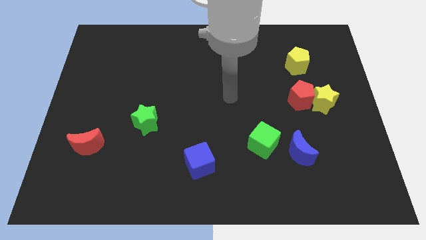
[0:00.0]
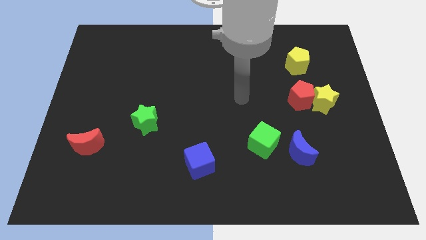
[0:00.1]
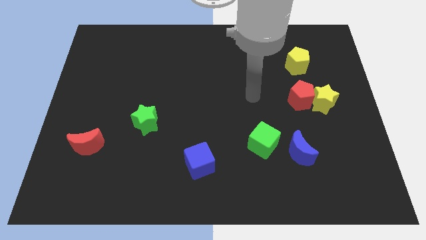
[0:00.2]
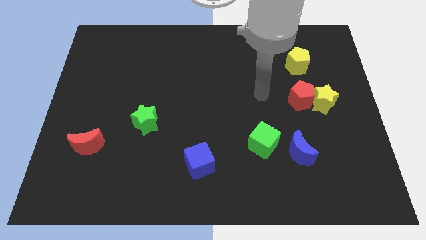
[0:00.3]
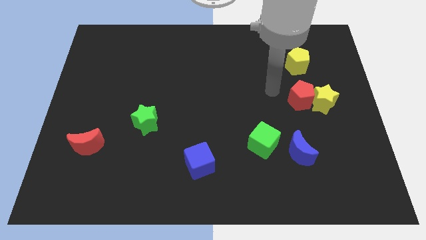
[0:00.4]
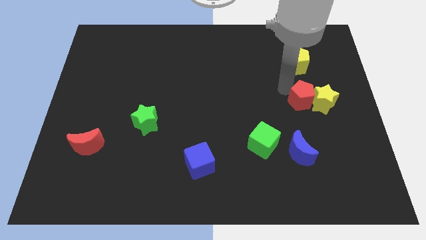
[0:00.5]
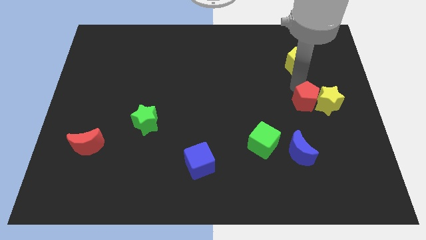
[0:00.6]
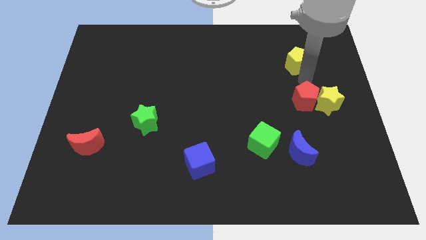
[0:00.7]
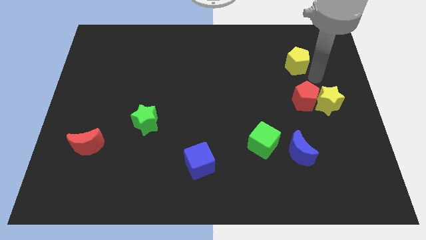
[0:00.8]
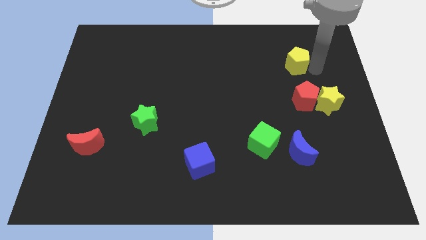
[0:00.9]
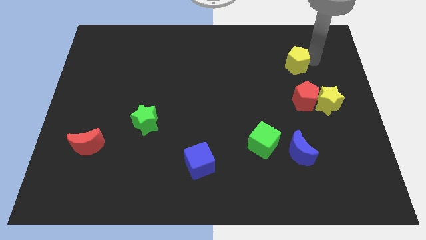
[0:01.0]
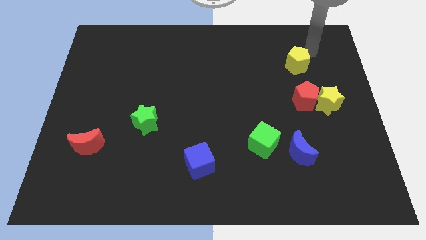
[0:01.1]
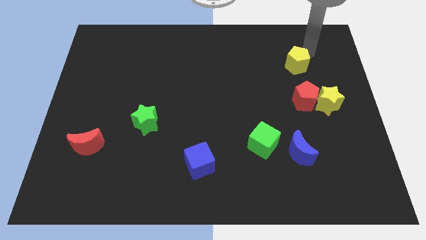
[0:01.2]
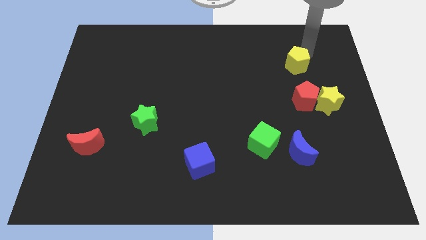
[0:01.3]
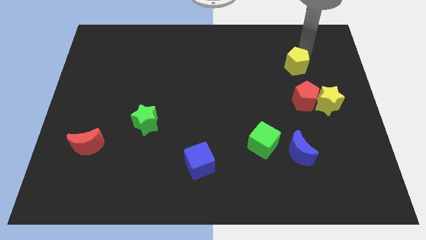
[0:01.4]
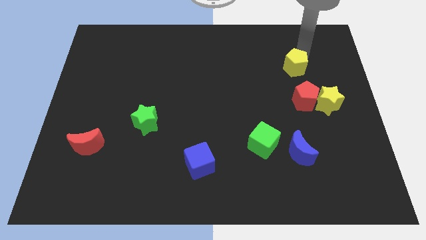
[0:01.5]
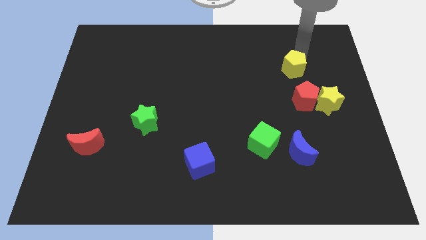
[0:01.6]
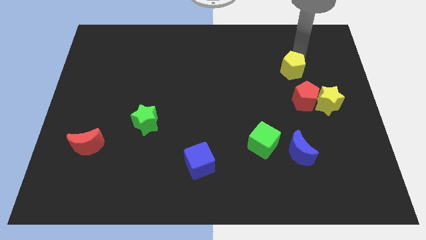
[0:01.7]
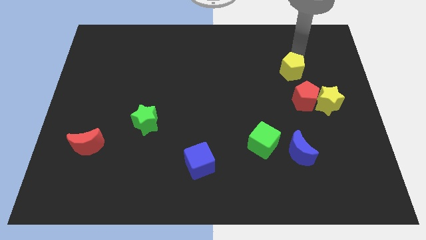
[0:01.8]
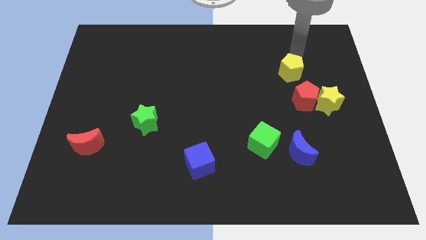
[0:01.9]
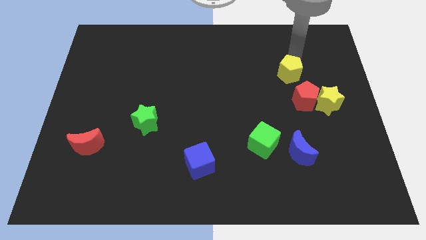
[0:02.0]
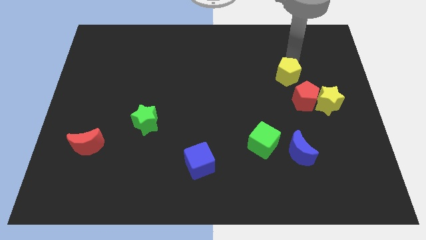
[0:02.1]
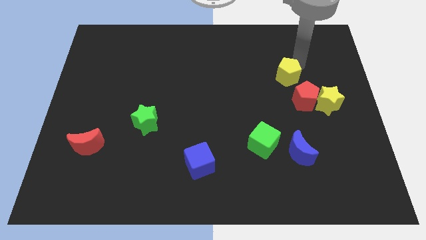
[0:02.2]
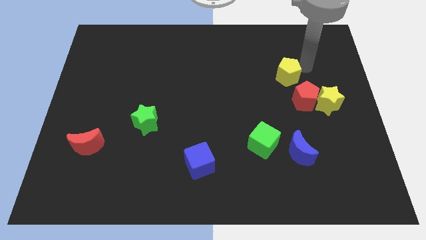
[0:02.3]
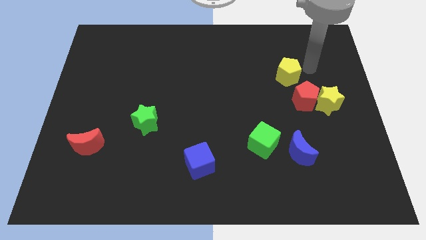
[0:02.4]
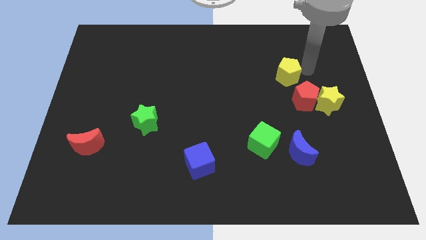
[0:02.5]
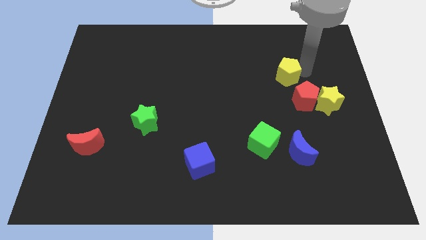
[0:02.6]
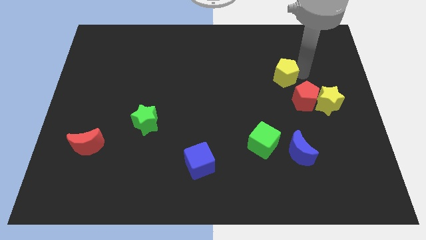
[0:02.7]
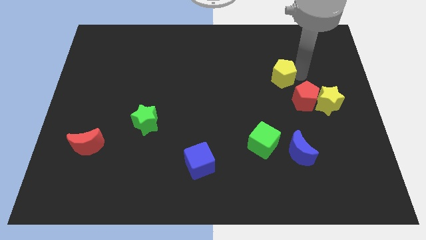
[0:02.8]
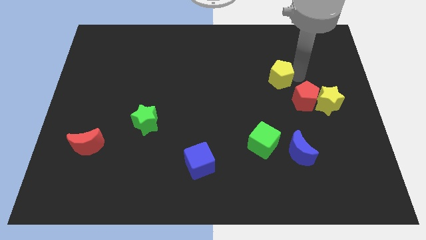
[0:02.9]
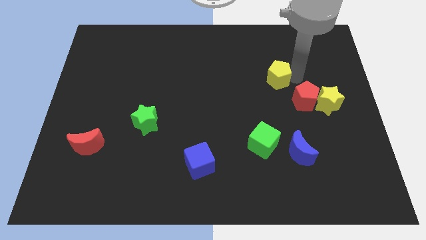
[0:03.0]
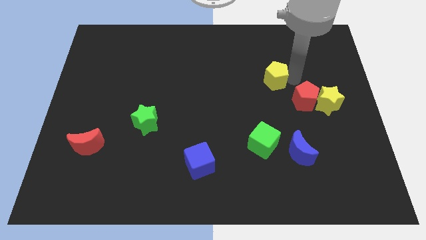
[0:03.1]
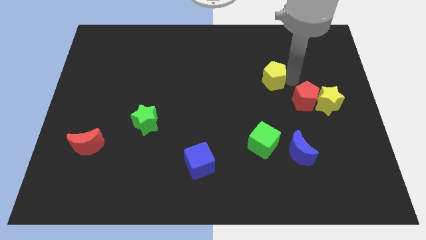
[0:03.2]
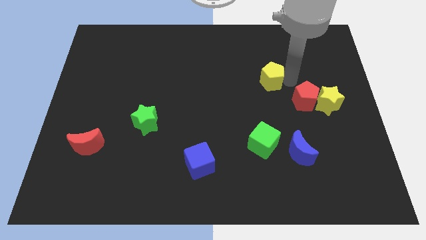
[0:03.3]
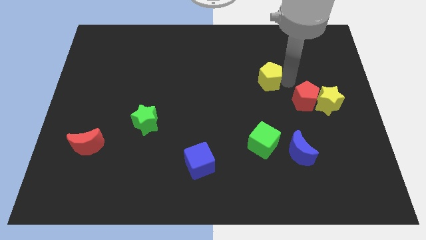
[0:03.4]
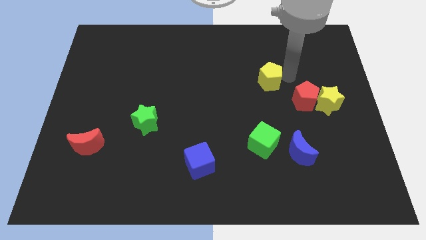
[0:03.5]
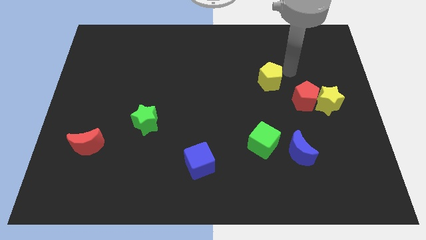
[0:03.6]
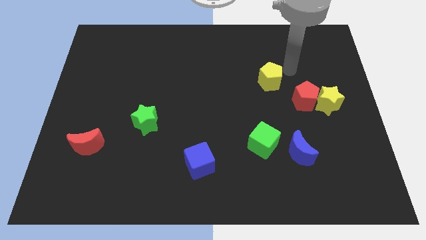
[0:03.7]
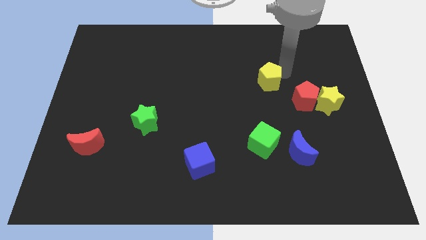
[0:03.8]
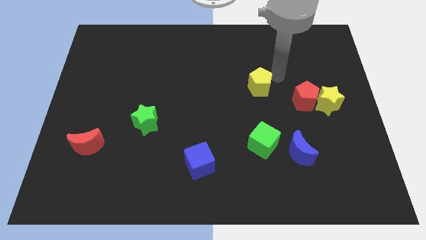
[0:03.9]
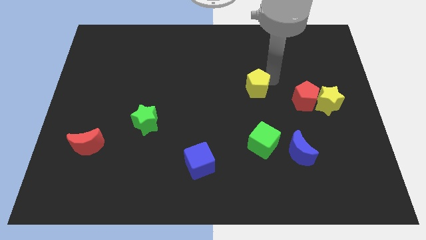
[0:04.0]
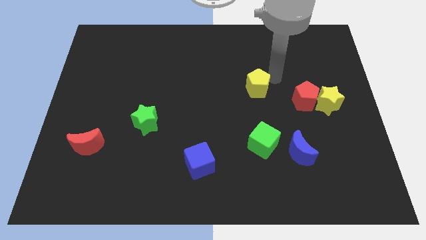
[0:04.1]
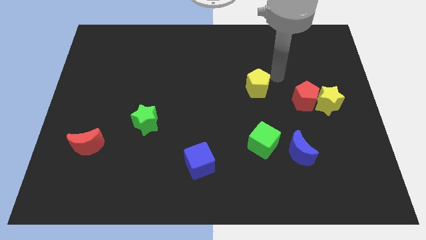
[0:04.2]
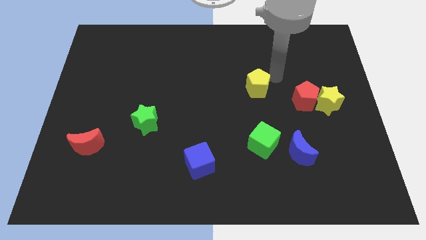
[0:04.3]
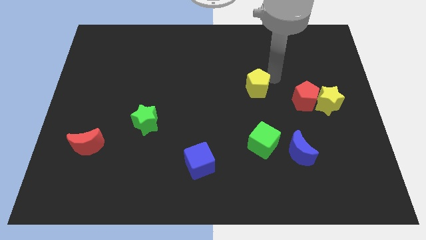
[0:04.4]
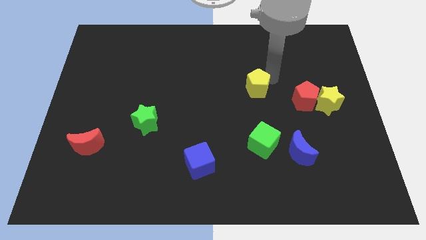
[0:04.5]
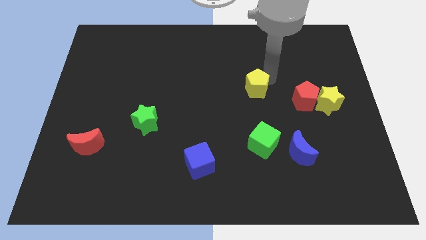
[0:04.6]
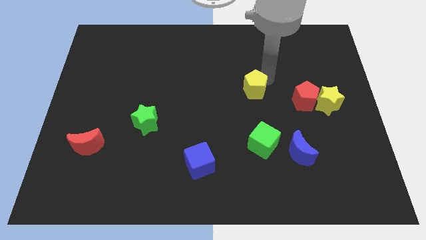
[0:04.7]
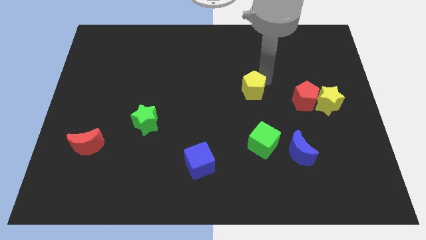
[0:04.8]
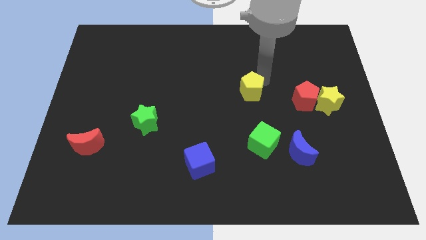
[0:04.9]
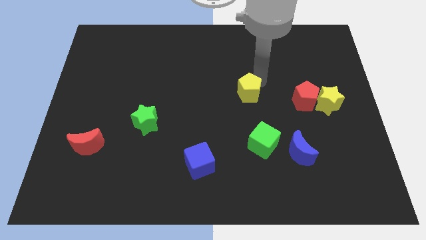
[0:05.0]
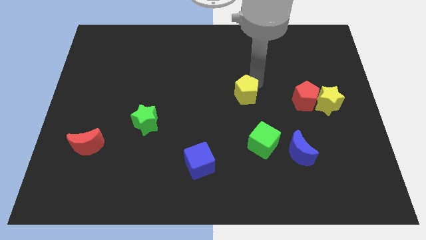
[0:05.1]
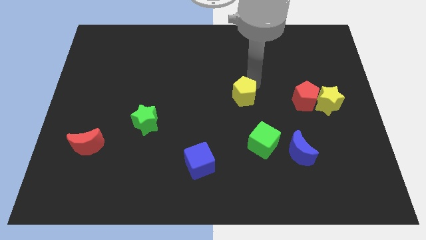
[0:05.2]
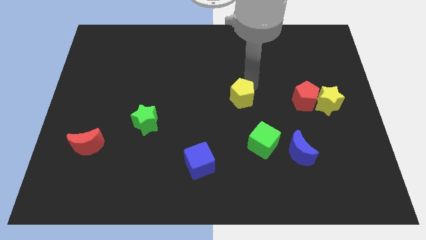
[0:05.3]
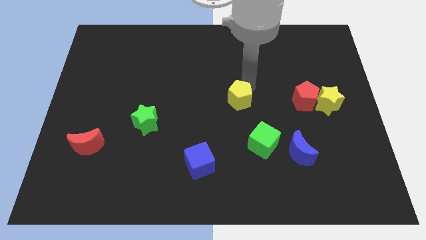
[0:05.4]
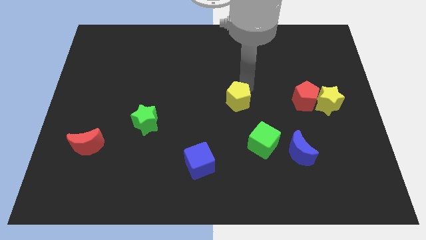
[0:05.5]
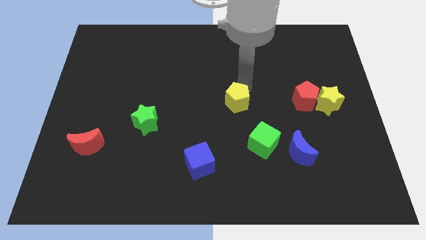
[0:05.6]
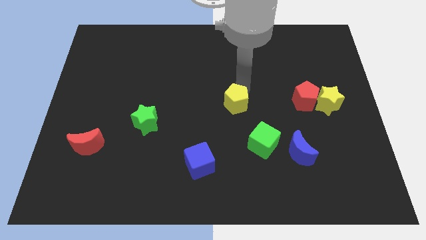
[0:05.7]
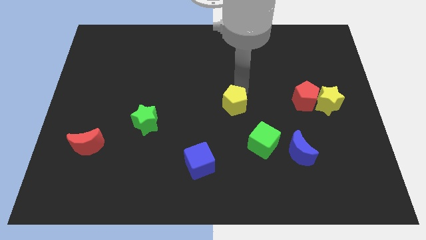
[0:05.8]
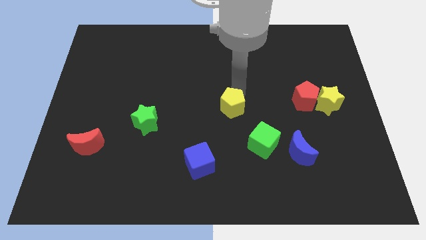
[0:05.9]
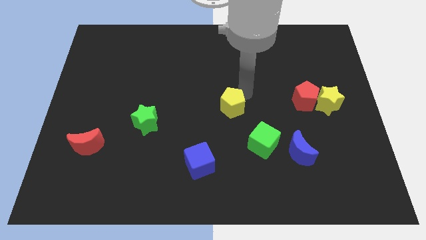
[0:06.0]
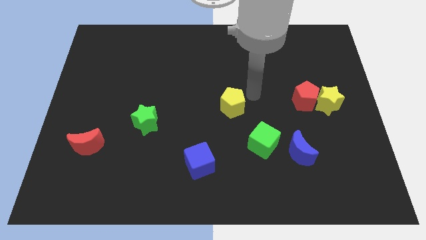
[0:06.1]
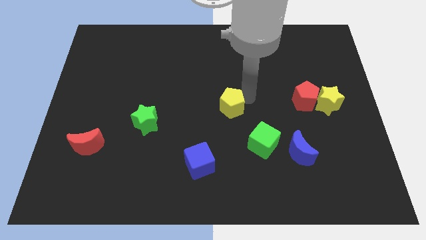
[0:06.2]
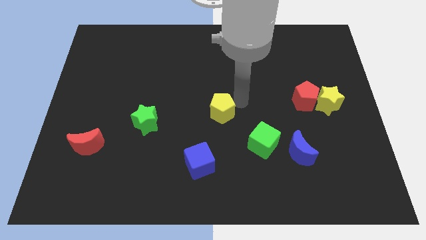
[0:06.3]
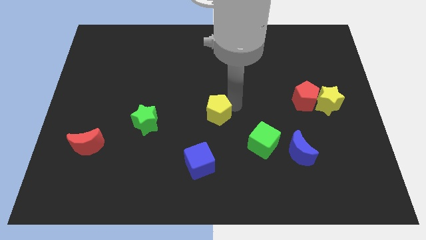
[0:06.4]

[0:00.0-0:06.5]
push the yellow pentagon to the top of the blue cube

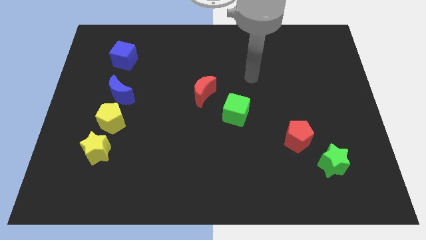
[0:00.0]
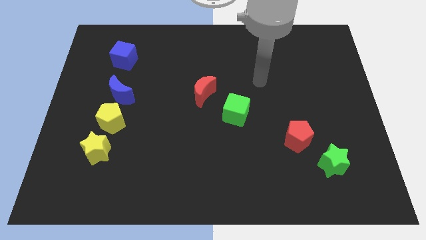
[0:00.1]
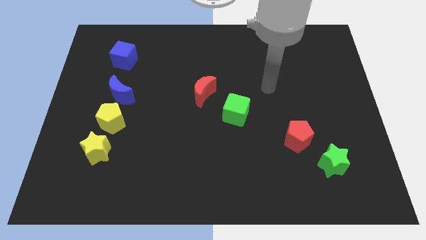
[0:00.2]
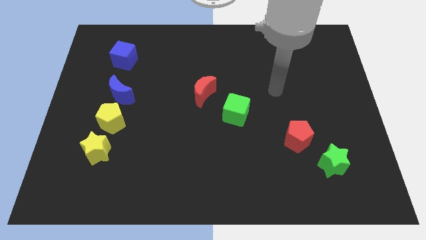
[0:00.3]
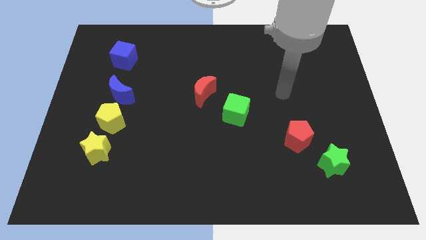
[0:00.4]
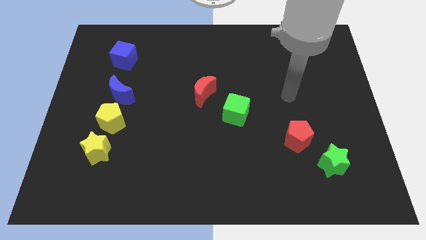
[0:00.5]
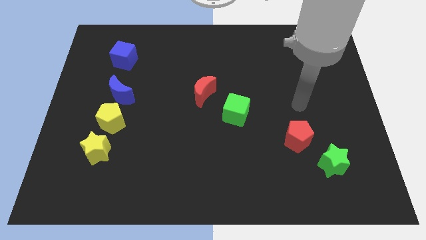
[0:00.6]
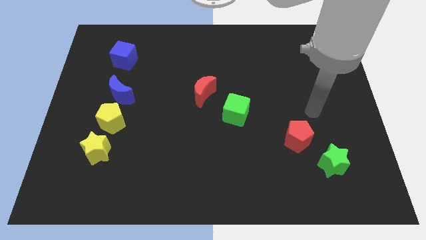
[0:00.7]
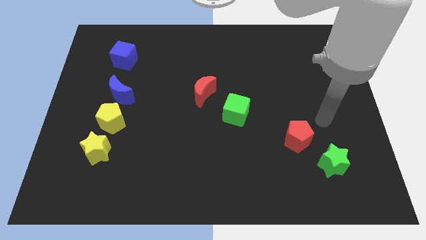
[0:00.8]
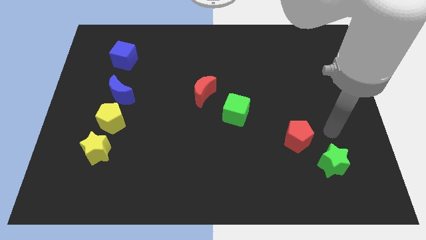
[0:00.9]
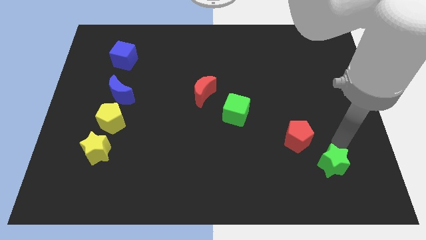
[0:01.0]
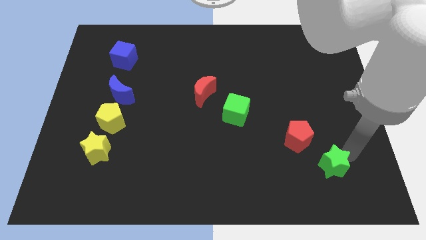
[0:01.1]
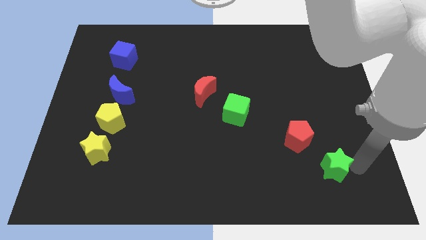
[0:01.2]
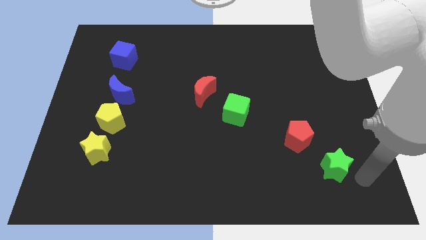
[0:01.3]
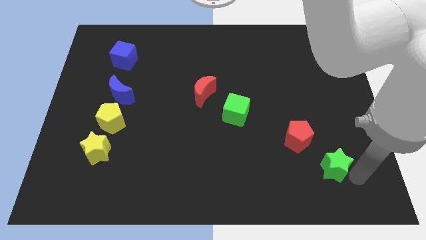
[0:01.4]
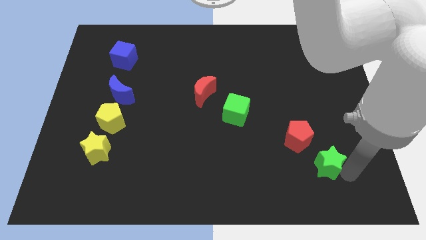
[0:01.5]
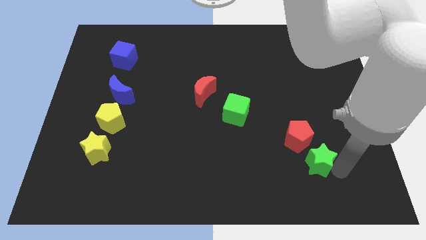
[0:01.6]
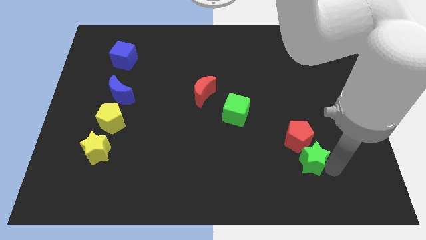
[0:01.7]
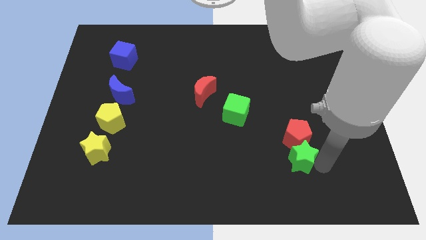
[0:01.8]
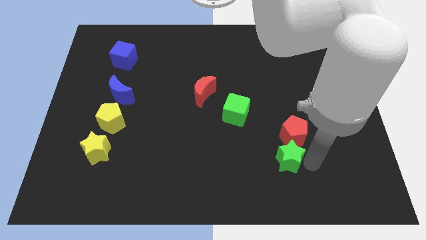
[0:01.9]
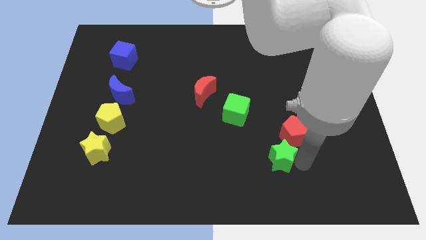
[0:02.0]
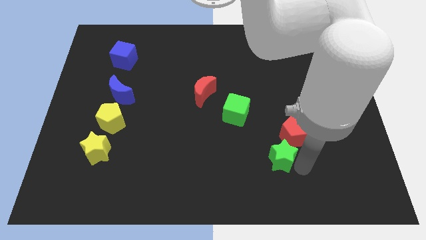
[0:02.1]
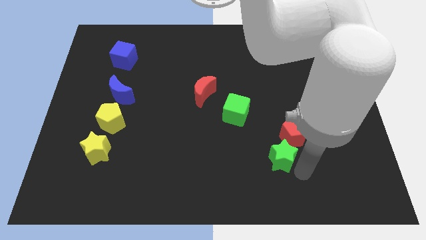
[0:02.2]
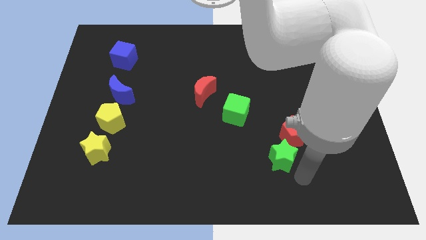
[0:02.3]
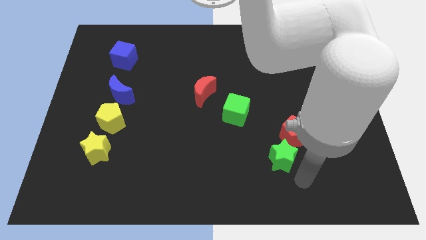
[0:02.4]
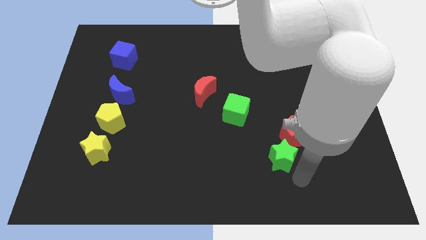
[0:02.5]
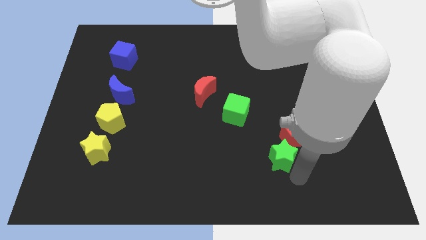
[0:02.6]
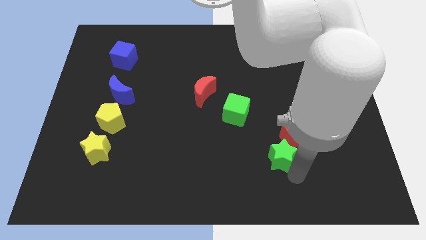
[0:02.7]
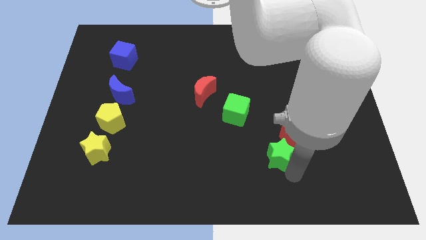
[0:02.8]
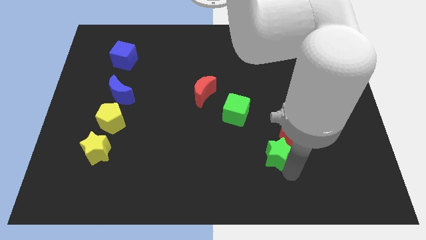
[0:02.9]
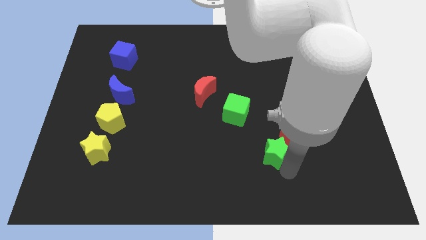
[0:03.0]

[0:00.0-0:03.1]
put the green star left of the red pentagon
